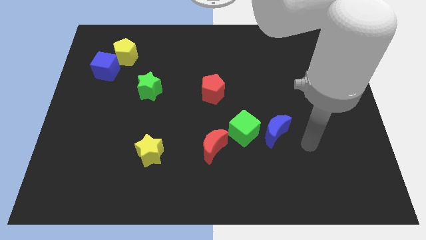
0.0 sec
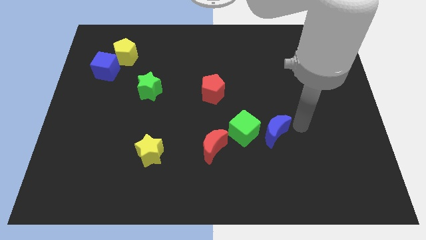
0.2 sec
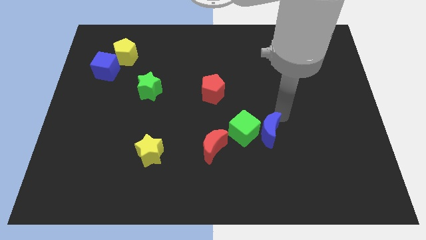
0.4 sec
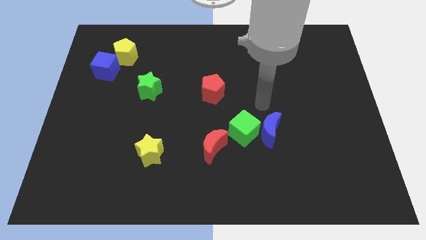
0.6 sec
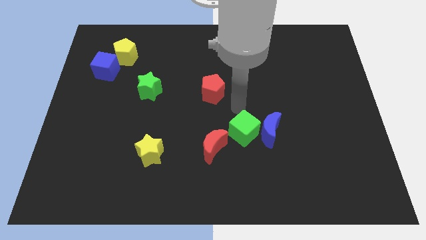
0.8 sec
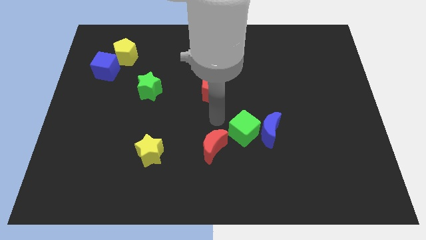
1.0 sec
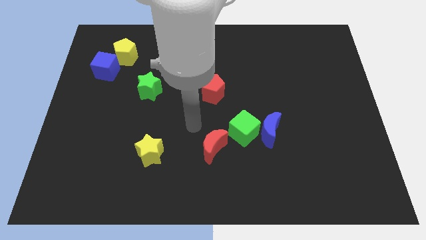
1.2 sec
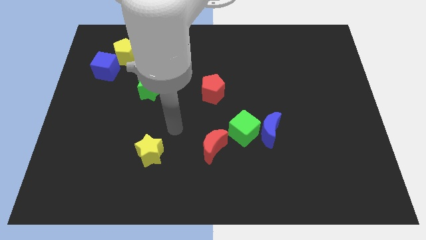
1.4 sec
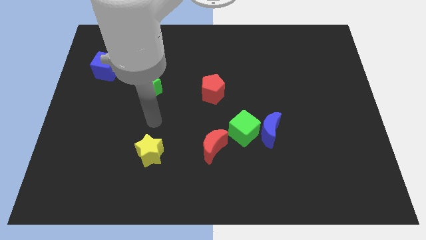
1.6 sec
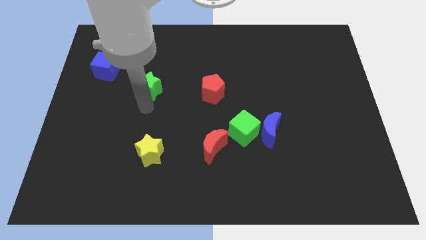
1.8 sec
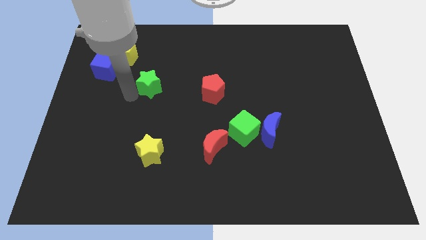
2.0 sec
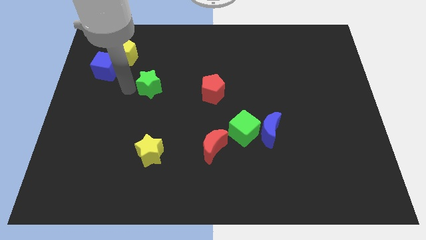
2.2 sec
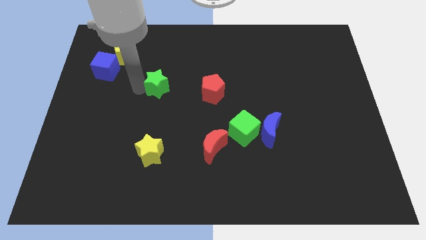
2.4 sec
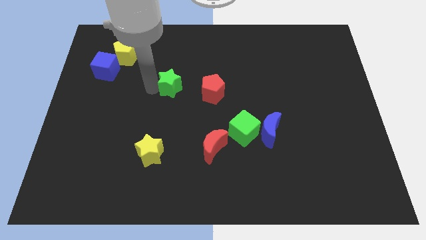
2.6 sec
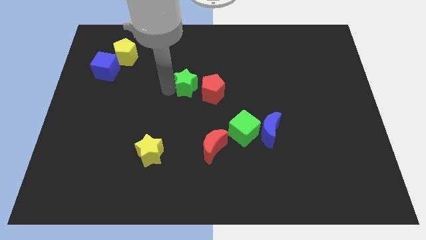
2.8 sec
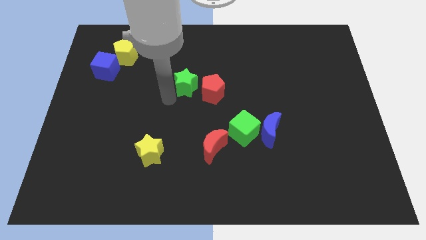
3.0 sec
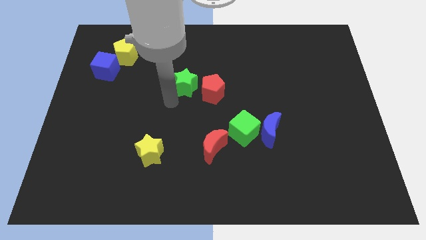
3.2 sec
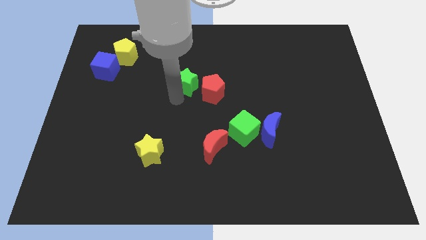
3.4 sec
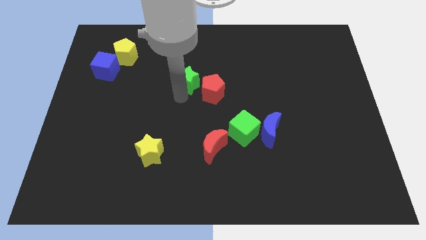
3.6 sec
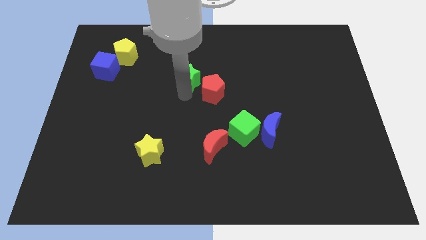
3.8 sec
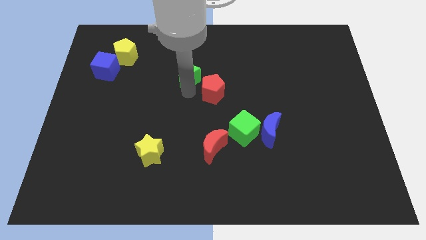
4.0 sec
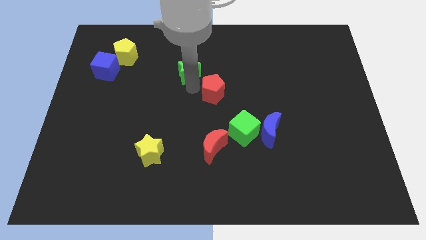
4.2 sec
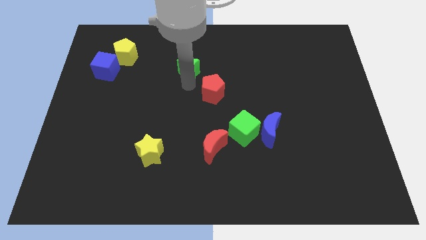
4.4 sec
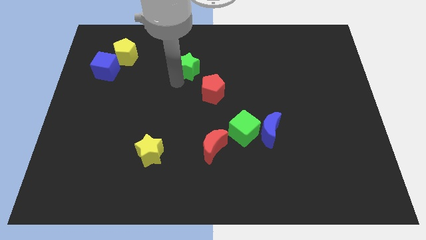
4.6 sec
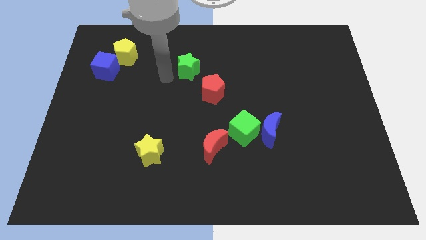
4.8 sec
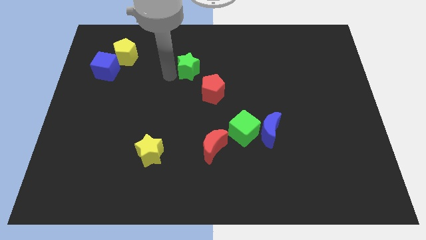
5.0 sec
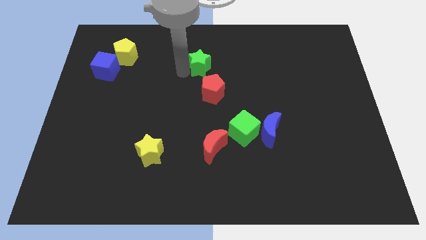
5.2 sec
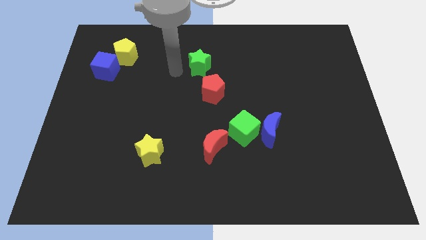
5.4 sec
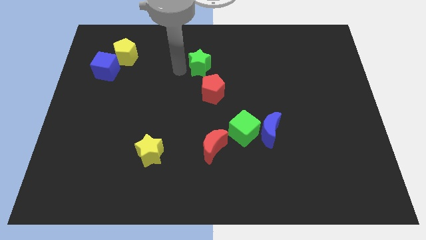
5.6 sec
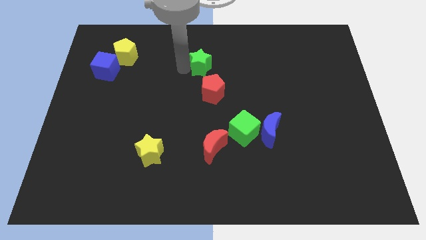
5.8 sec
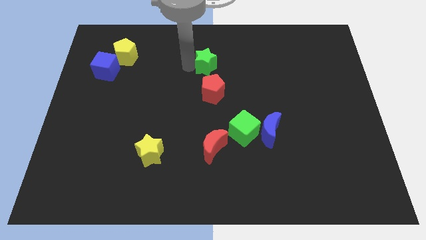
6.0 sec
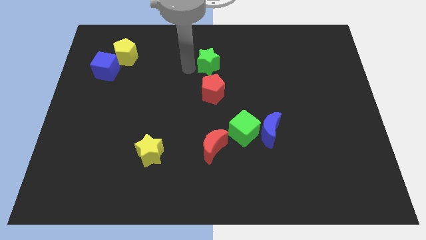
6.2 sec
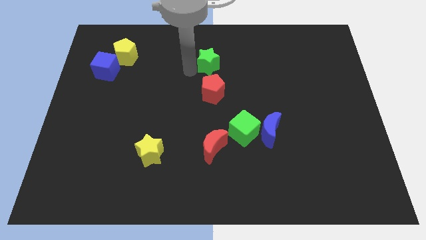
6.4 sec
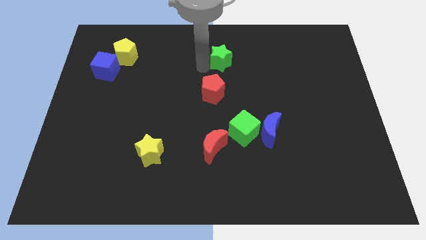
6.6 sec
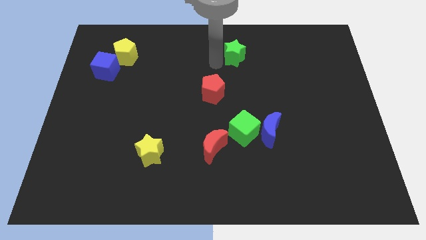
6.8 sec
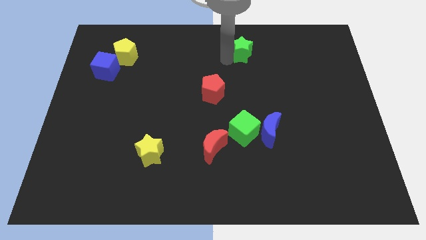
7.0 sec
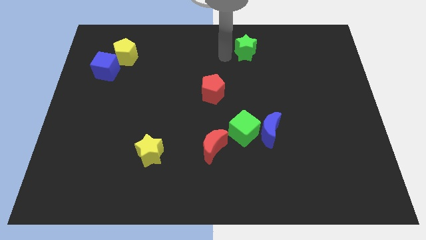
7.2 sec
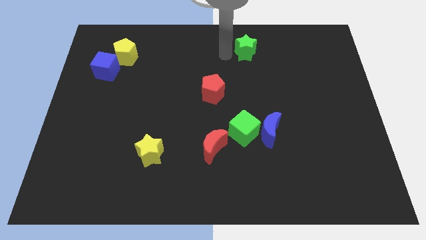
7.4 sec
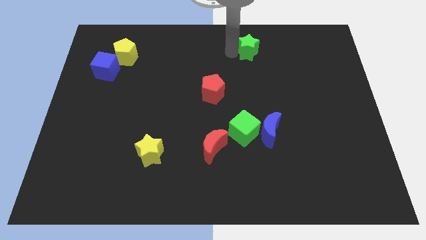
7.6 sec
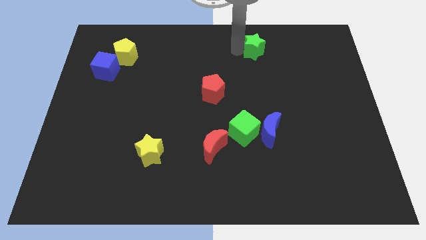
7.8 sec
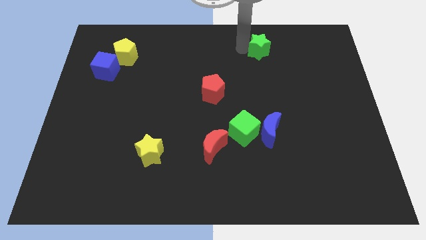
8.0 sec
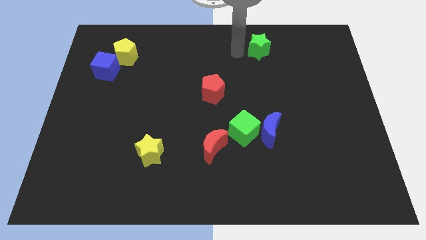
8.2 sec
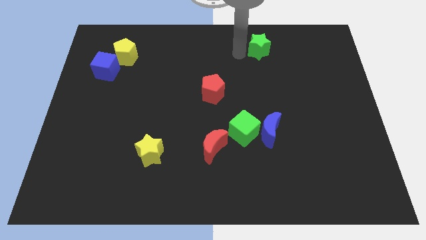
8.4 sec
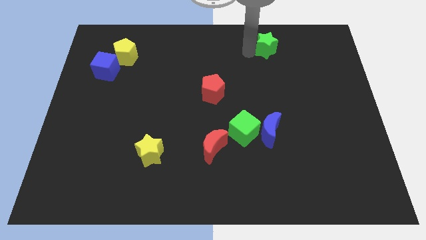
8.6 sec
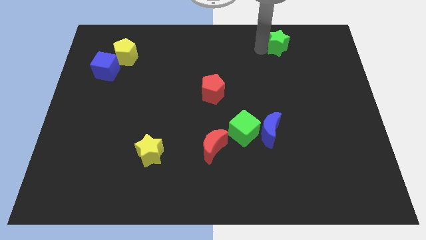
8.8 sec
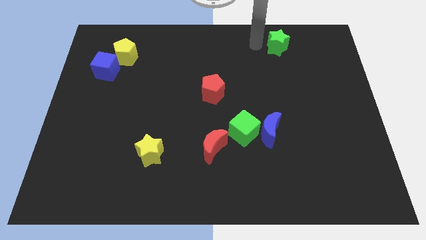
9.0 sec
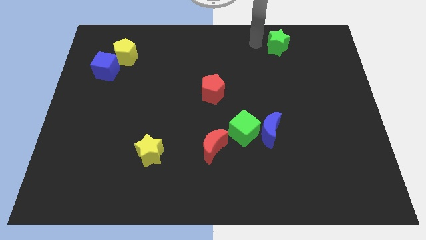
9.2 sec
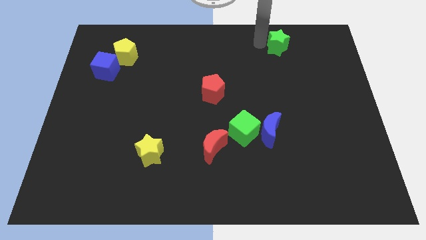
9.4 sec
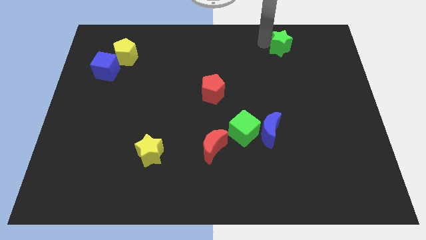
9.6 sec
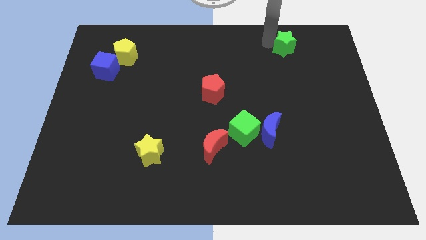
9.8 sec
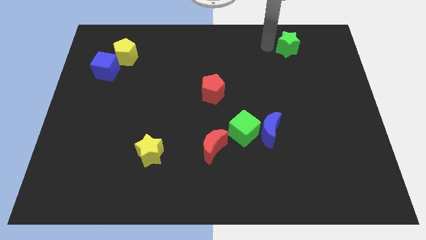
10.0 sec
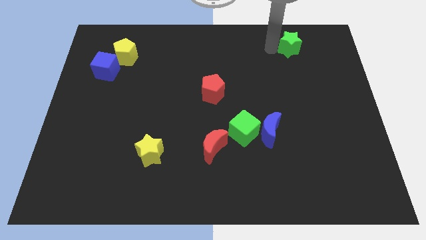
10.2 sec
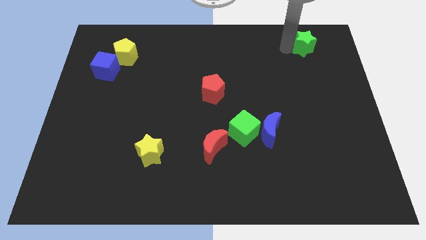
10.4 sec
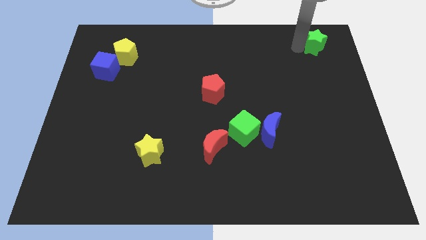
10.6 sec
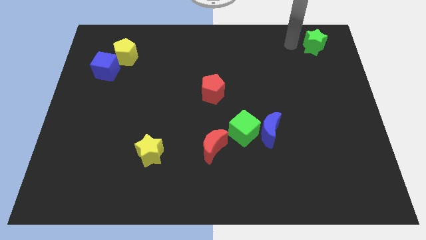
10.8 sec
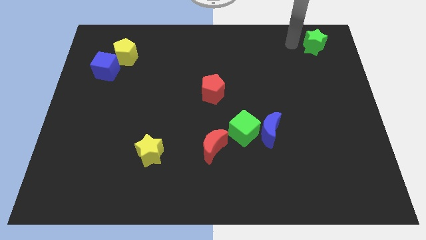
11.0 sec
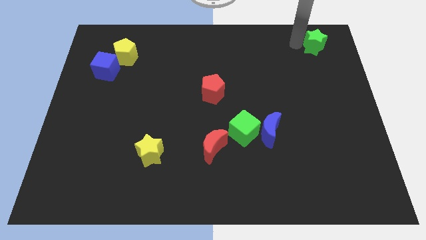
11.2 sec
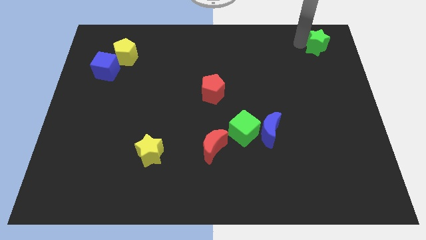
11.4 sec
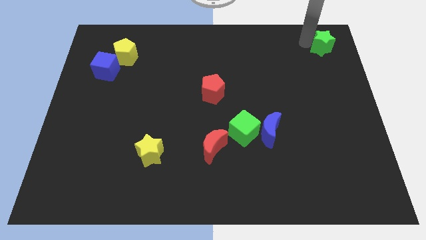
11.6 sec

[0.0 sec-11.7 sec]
slide the green star to the top right of the board

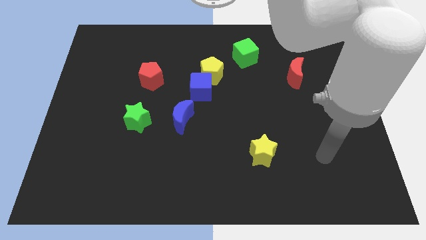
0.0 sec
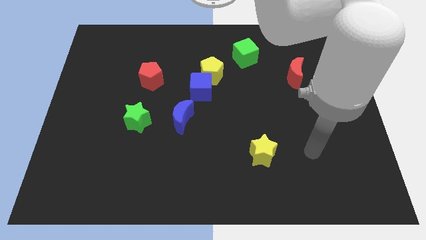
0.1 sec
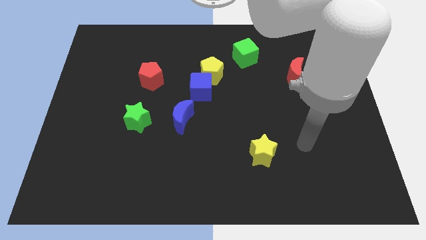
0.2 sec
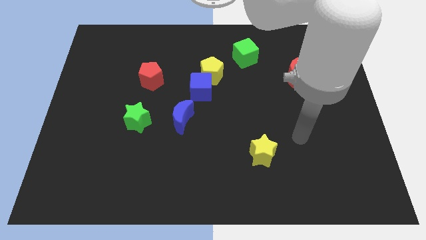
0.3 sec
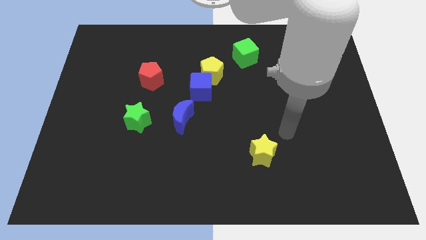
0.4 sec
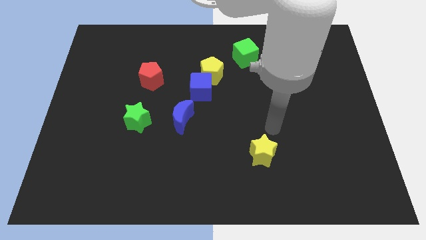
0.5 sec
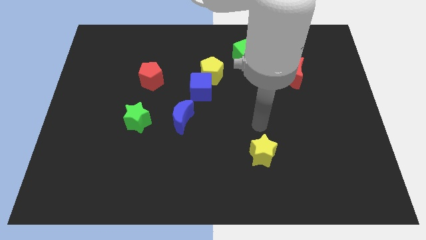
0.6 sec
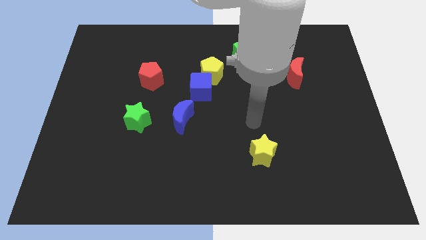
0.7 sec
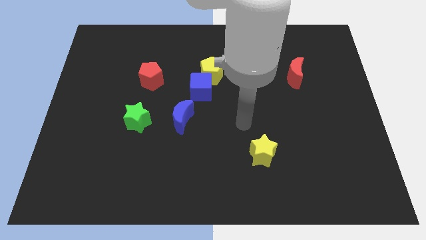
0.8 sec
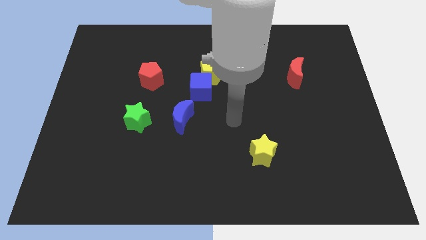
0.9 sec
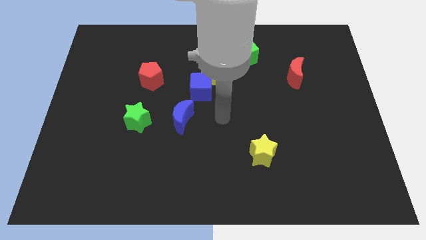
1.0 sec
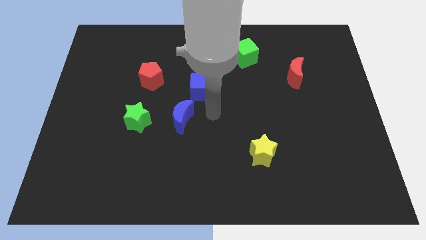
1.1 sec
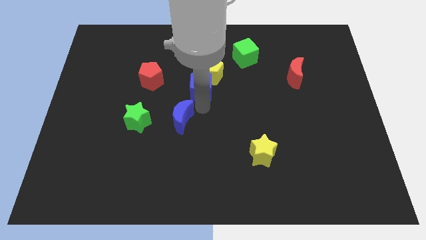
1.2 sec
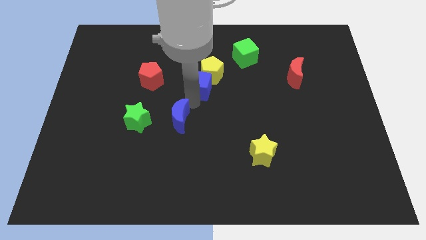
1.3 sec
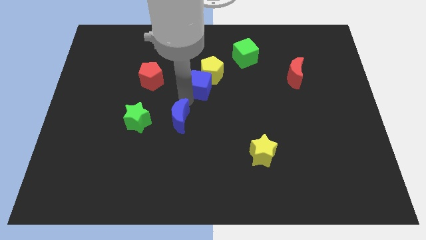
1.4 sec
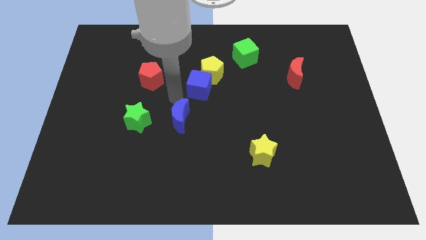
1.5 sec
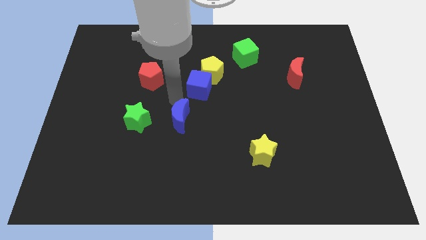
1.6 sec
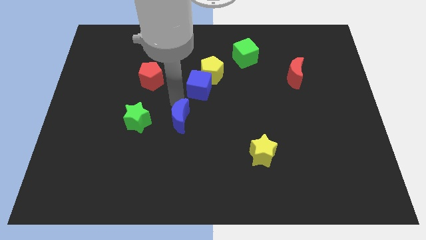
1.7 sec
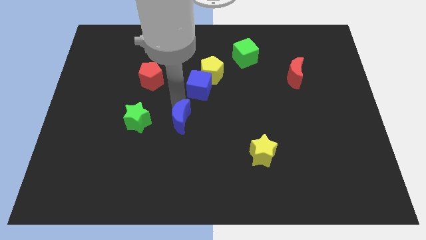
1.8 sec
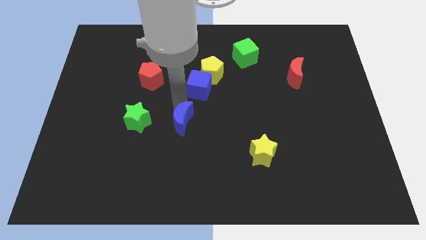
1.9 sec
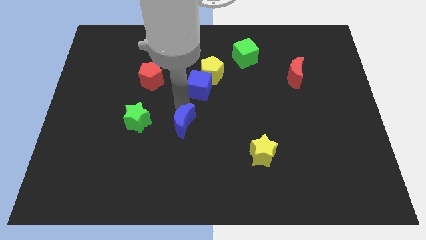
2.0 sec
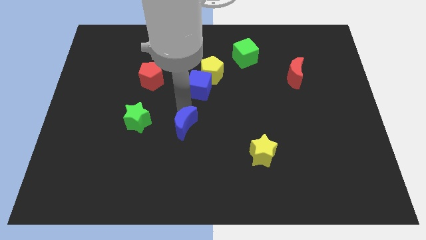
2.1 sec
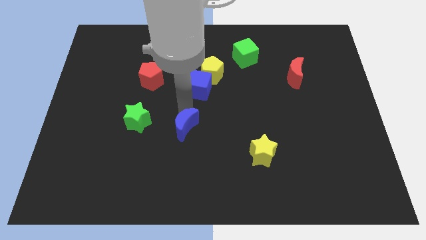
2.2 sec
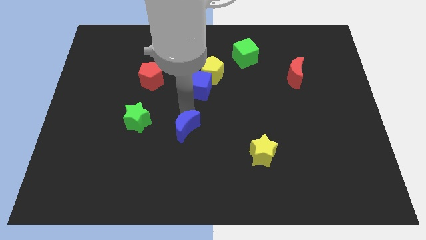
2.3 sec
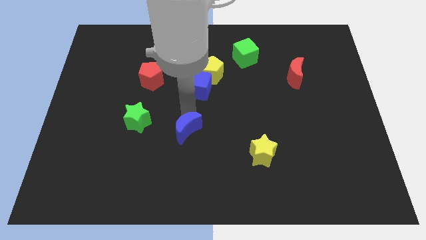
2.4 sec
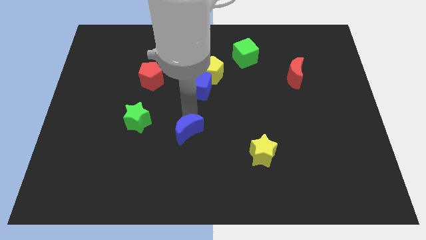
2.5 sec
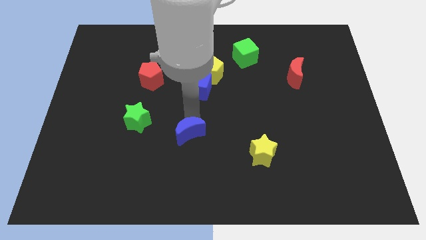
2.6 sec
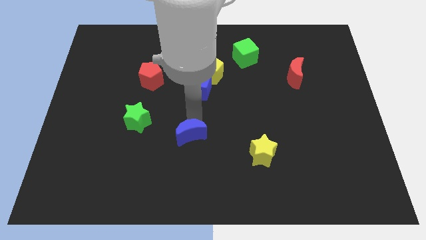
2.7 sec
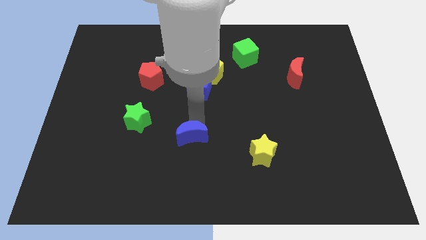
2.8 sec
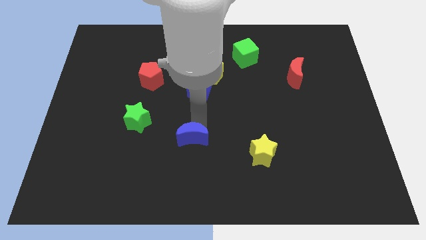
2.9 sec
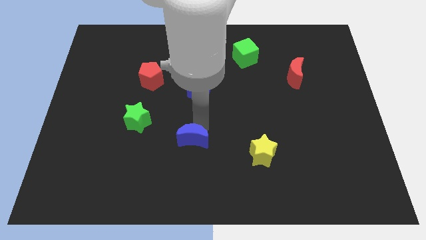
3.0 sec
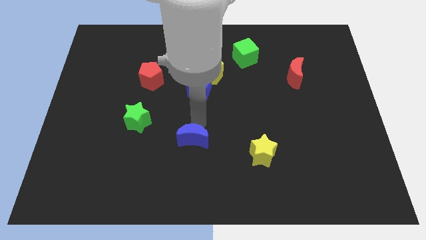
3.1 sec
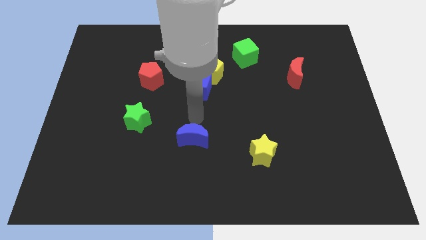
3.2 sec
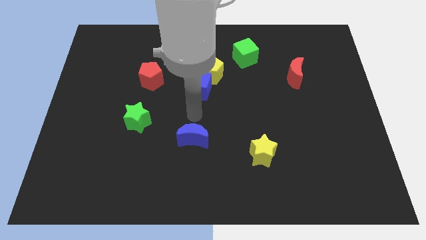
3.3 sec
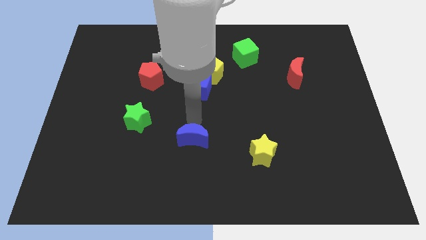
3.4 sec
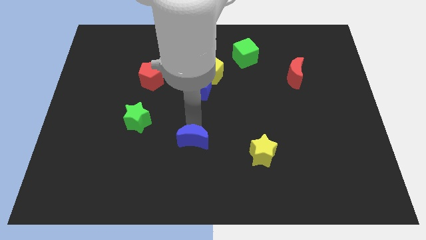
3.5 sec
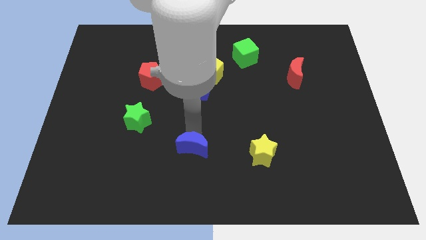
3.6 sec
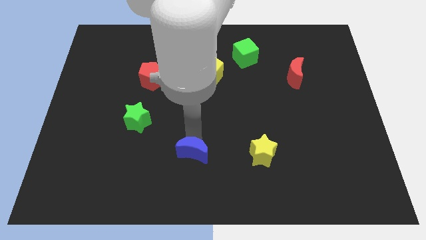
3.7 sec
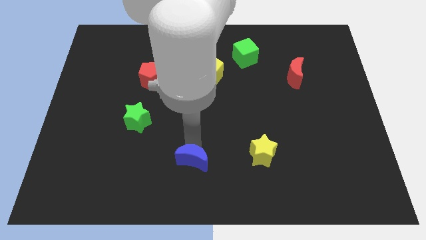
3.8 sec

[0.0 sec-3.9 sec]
move the blue moon to the bottom
